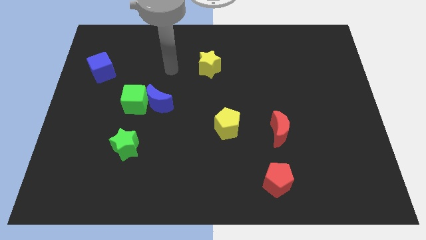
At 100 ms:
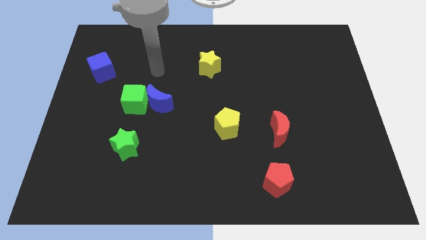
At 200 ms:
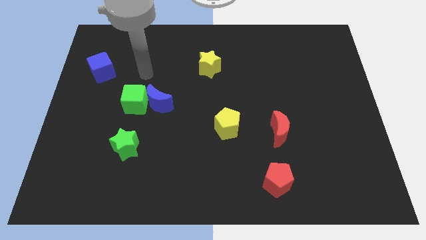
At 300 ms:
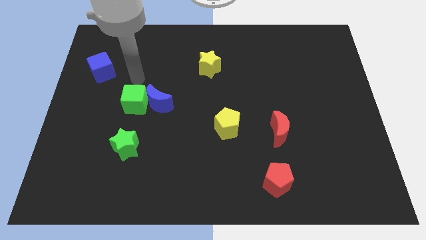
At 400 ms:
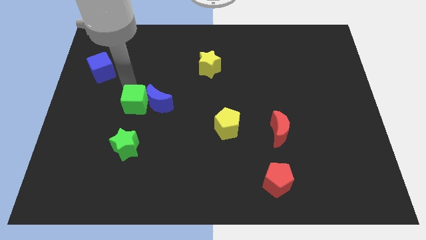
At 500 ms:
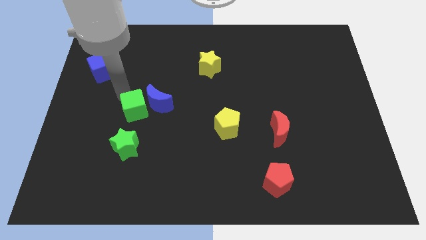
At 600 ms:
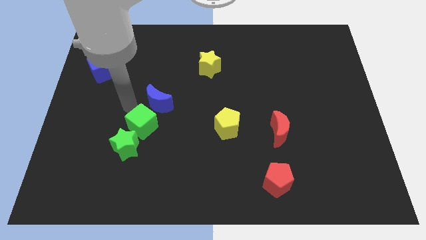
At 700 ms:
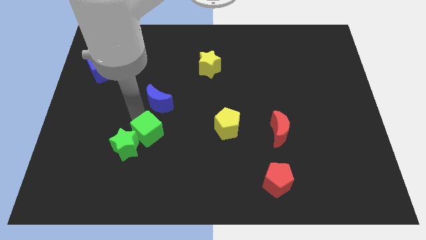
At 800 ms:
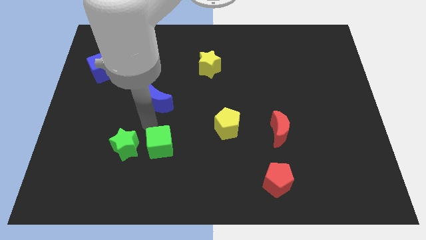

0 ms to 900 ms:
move the blue moon away from the green cube

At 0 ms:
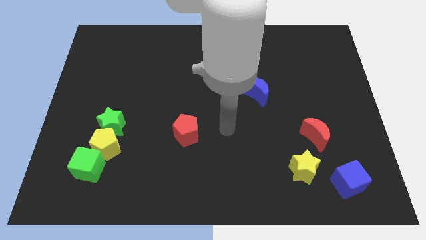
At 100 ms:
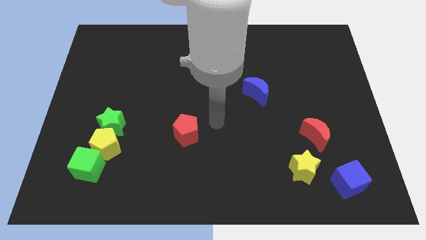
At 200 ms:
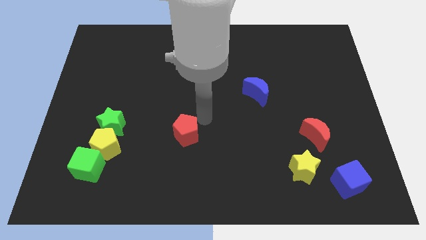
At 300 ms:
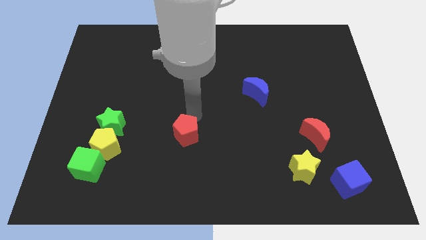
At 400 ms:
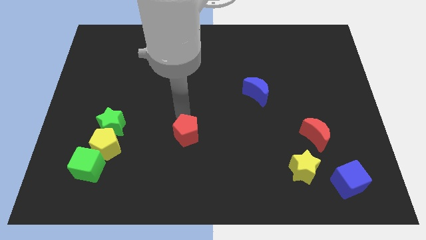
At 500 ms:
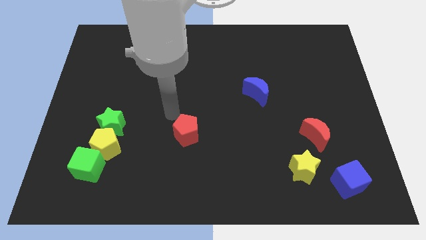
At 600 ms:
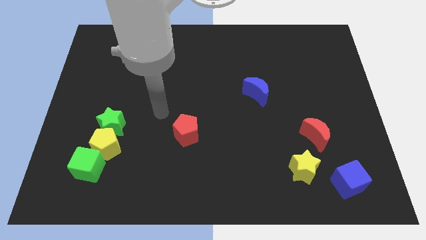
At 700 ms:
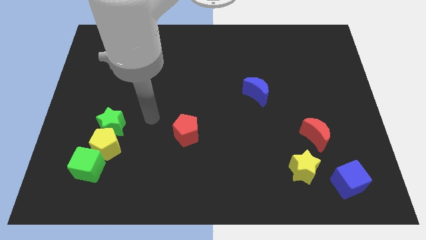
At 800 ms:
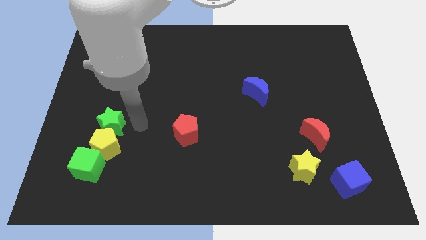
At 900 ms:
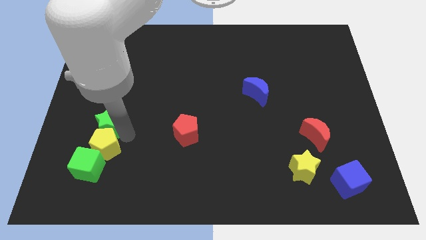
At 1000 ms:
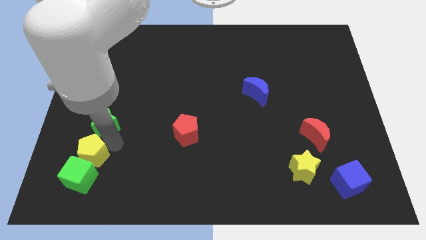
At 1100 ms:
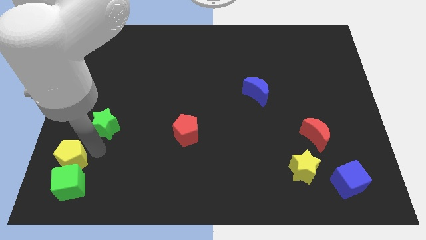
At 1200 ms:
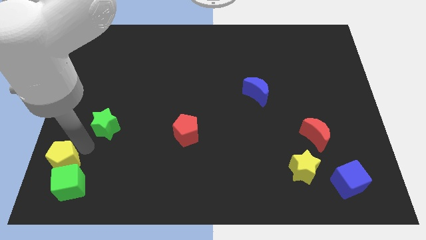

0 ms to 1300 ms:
pull the green star apart from the yellow pentagon

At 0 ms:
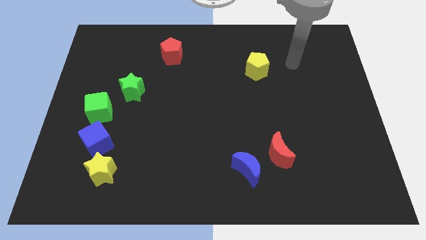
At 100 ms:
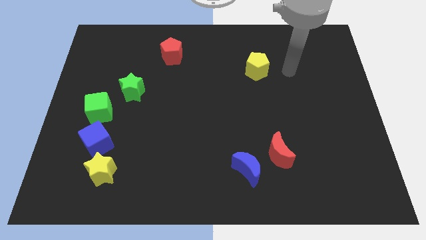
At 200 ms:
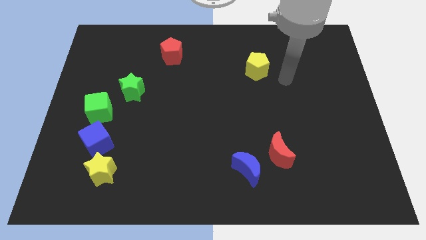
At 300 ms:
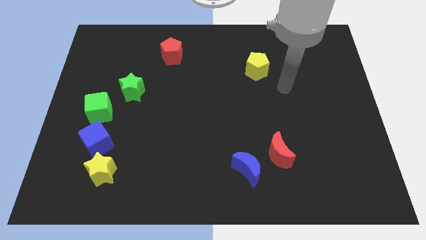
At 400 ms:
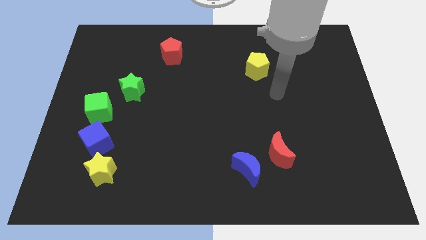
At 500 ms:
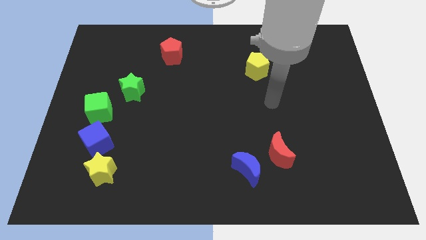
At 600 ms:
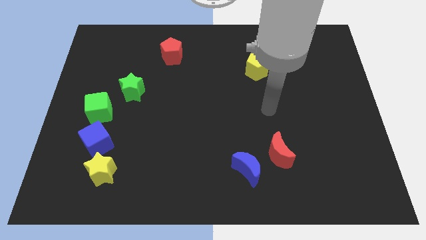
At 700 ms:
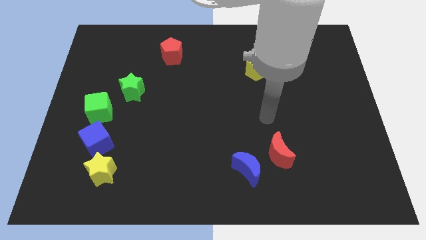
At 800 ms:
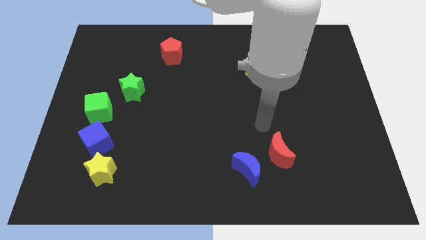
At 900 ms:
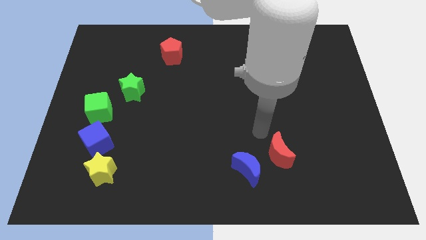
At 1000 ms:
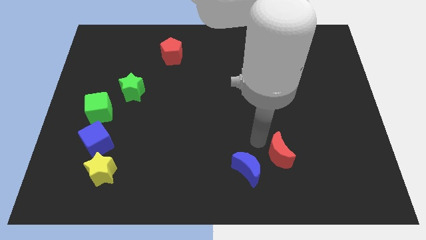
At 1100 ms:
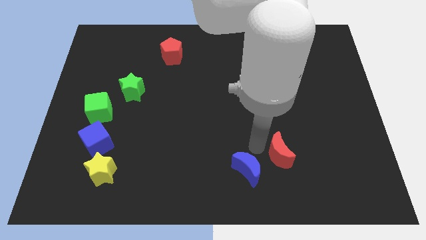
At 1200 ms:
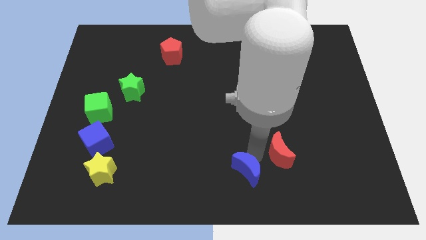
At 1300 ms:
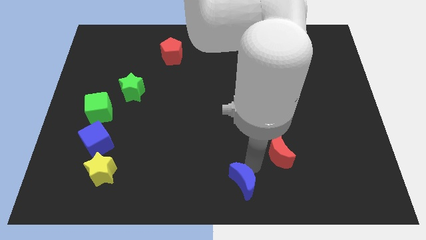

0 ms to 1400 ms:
move the red moon away from the blue moon

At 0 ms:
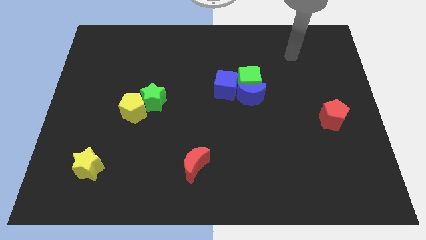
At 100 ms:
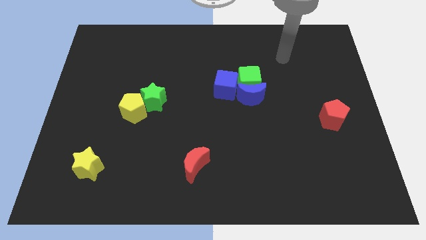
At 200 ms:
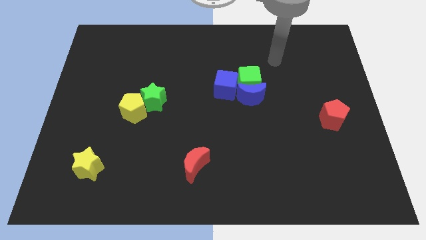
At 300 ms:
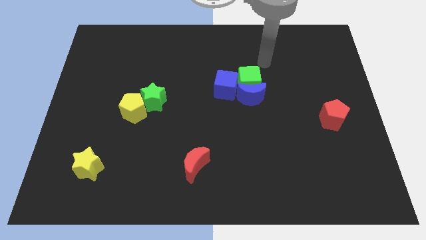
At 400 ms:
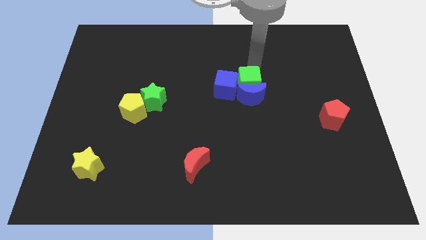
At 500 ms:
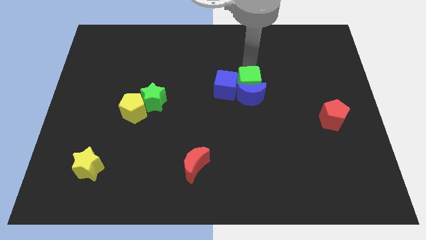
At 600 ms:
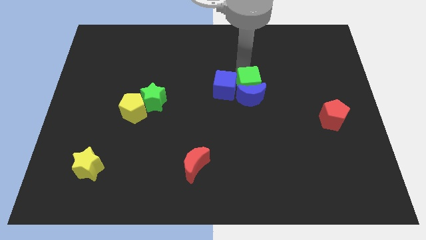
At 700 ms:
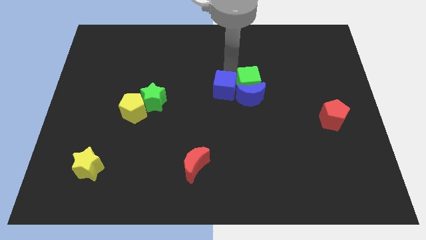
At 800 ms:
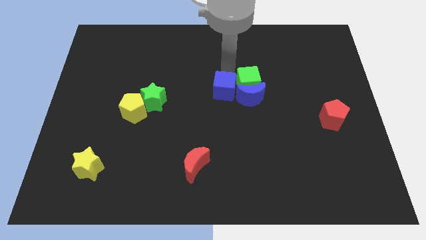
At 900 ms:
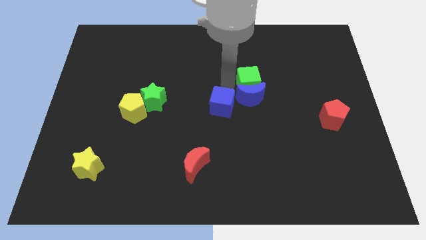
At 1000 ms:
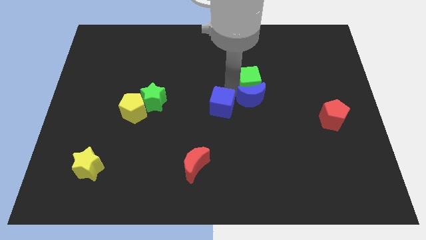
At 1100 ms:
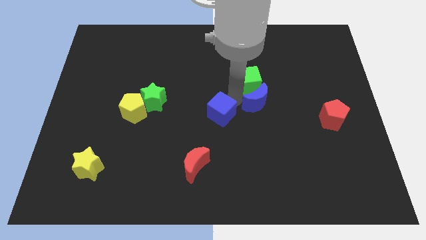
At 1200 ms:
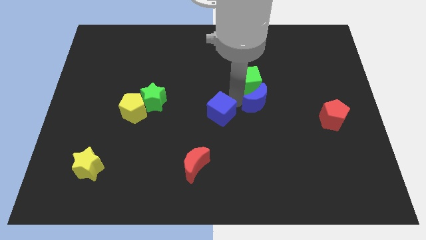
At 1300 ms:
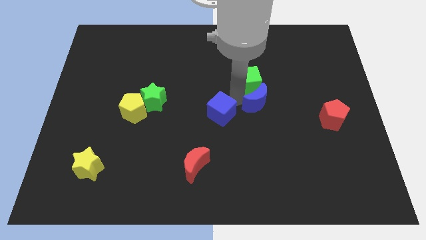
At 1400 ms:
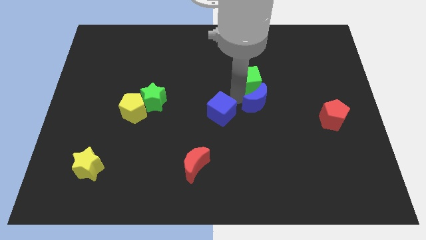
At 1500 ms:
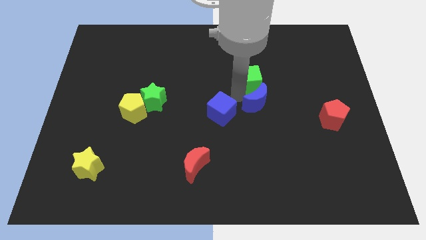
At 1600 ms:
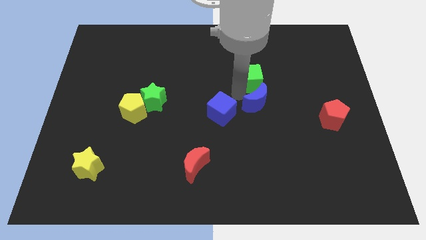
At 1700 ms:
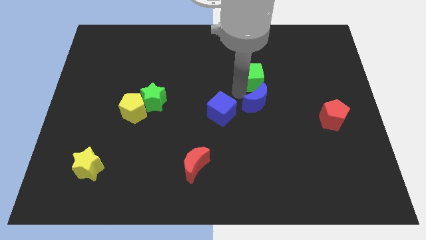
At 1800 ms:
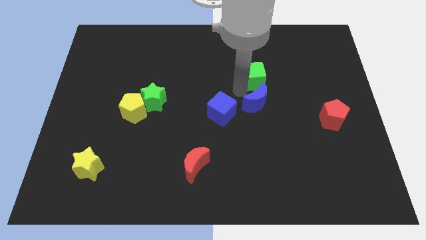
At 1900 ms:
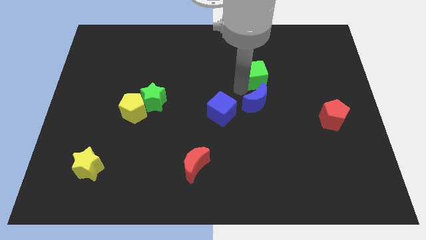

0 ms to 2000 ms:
separate the green cube from the blue moon and blue cube

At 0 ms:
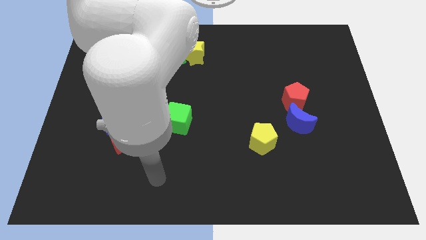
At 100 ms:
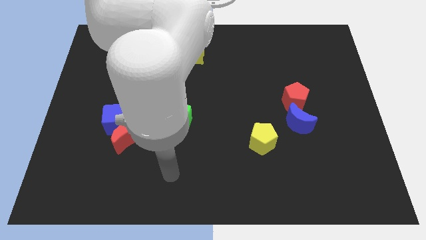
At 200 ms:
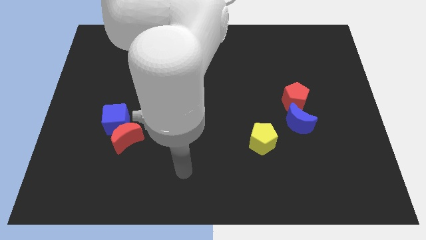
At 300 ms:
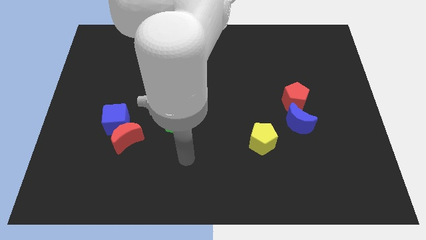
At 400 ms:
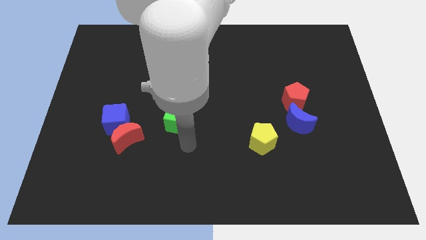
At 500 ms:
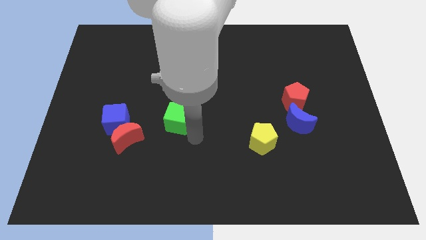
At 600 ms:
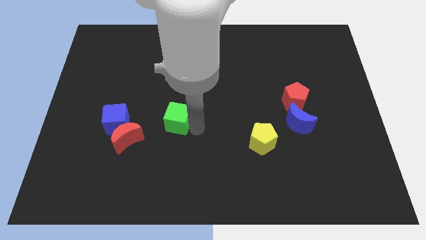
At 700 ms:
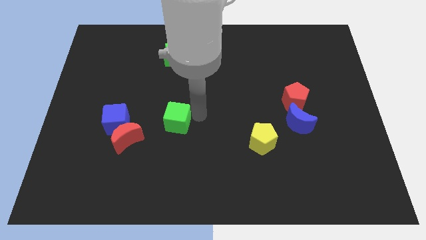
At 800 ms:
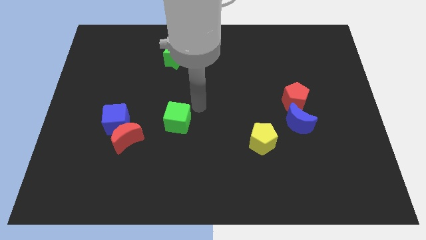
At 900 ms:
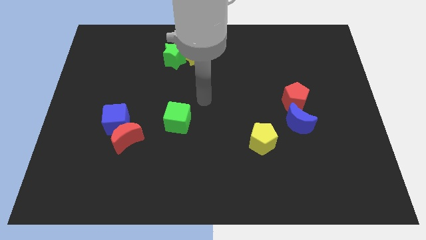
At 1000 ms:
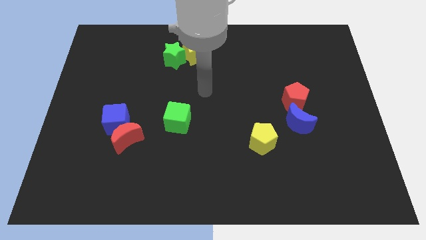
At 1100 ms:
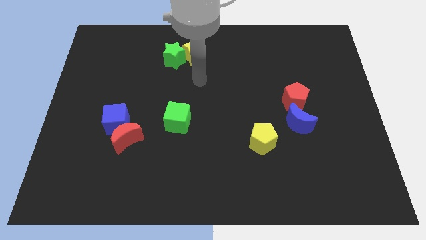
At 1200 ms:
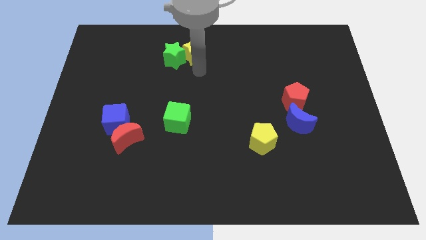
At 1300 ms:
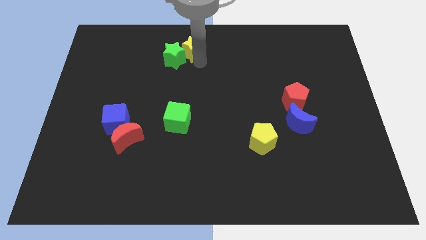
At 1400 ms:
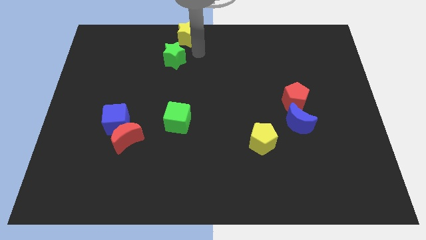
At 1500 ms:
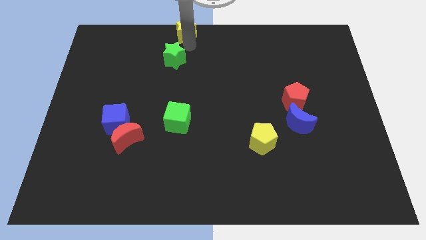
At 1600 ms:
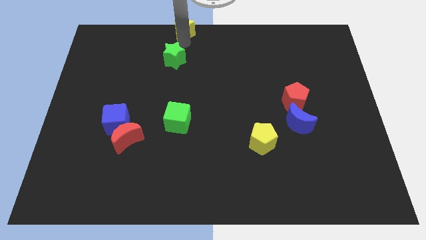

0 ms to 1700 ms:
move the green star away from the yellow star

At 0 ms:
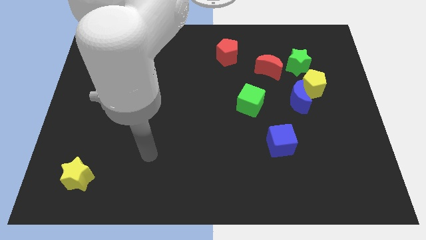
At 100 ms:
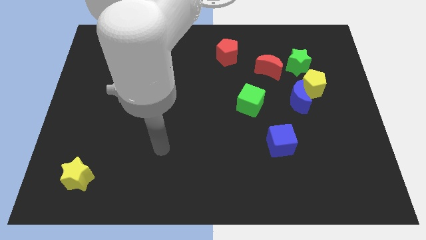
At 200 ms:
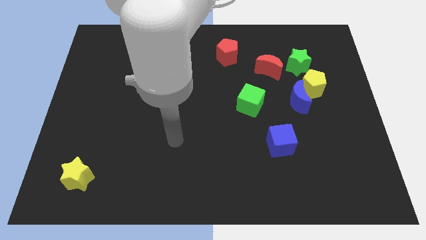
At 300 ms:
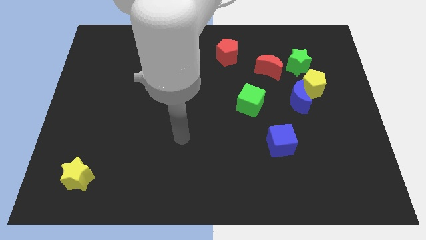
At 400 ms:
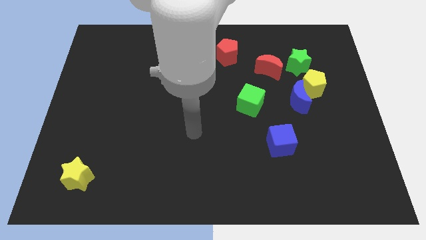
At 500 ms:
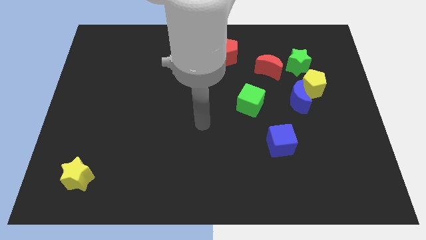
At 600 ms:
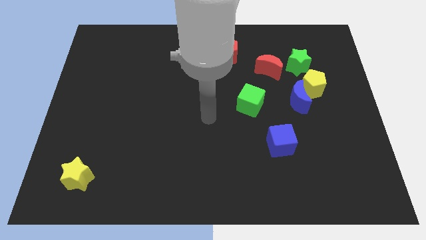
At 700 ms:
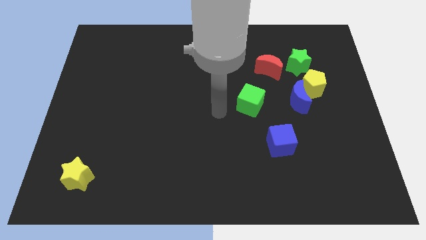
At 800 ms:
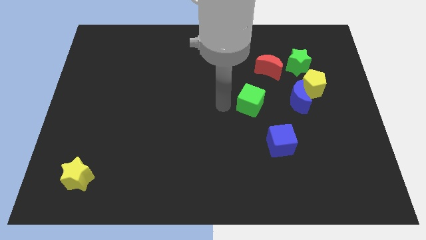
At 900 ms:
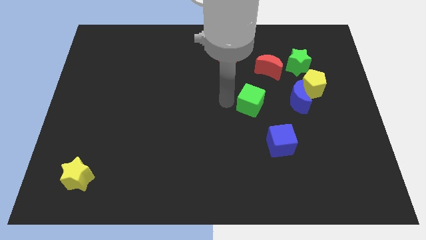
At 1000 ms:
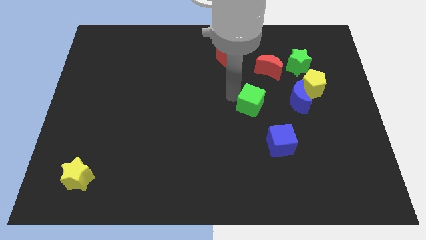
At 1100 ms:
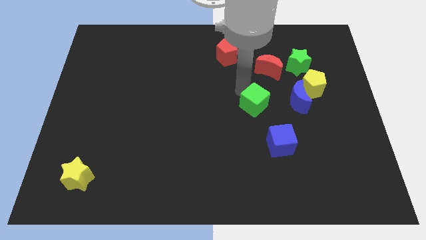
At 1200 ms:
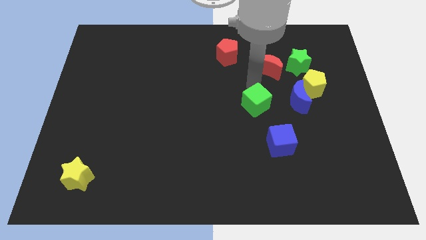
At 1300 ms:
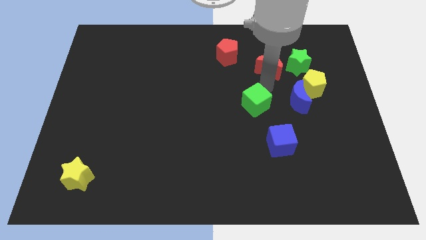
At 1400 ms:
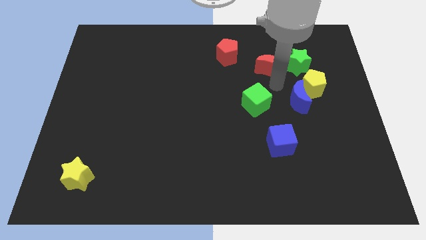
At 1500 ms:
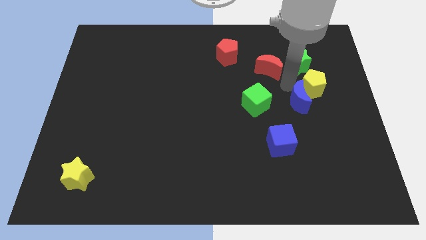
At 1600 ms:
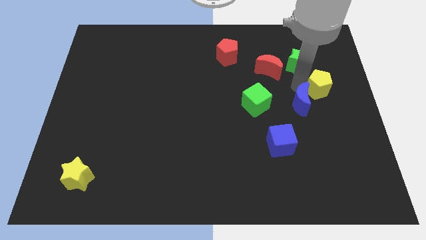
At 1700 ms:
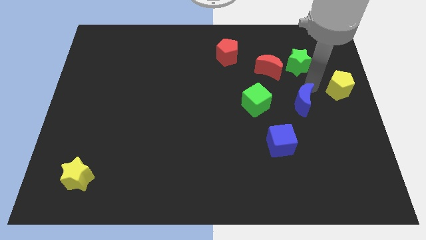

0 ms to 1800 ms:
pull the blue moon apart from the yellow pentagon

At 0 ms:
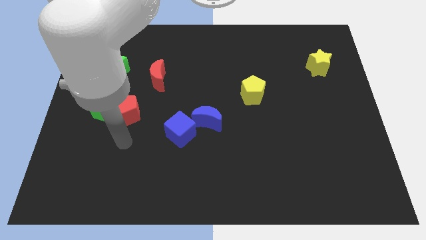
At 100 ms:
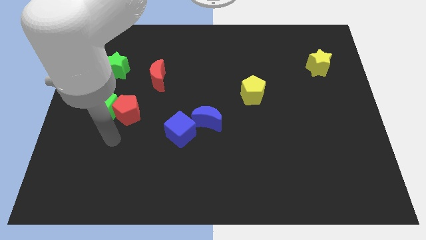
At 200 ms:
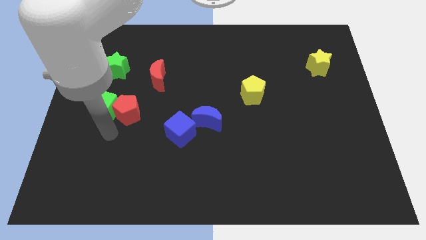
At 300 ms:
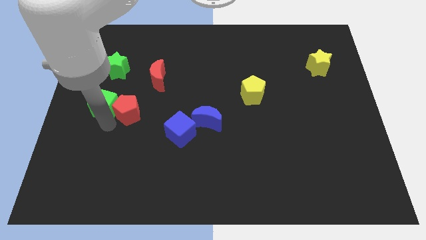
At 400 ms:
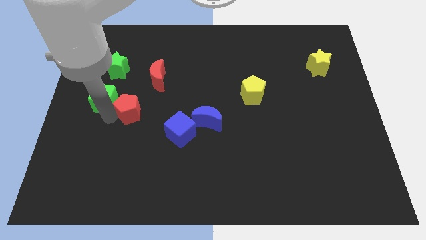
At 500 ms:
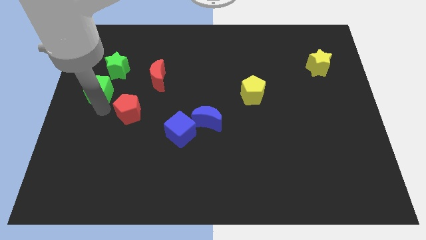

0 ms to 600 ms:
move the red pentagon away from the green cube
